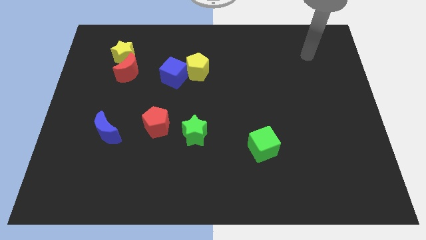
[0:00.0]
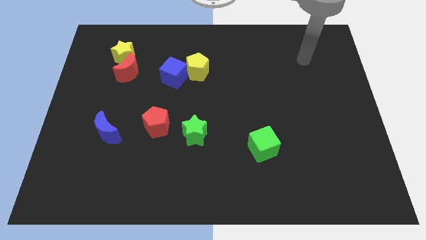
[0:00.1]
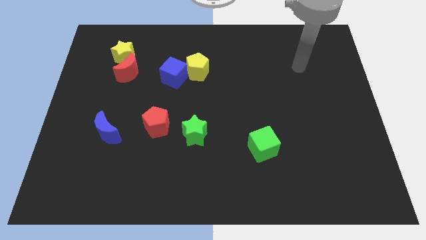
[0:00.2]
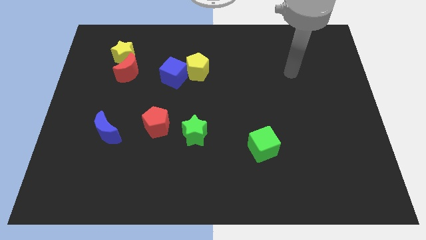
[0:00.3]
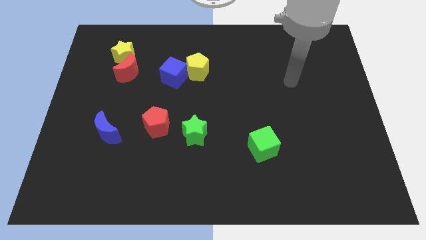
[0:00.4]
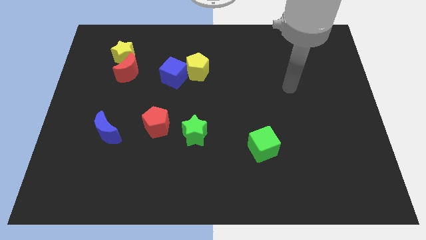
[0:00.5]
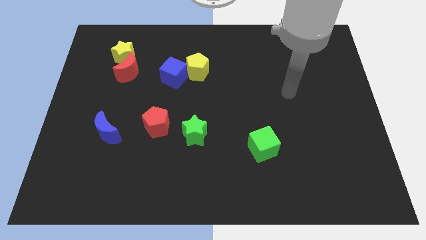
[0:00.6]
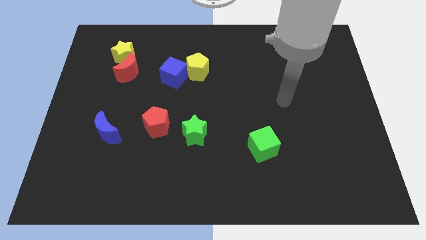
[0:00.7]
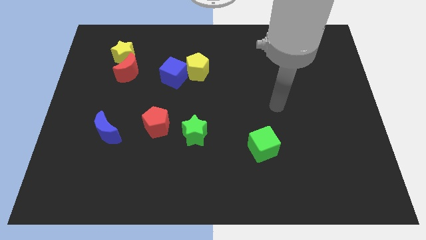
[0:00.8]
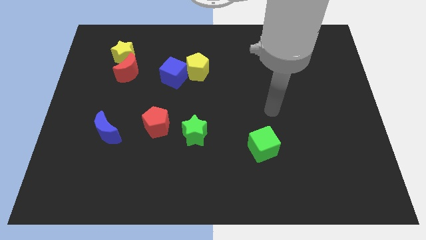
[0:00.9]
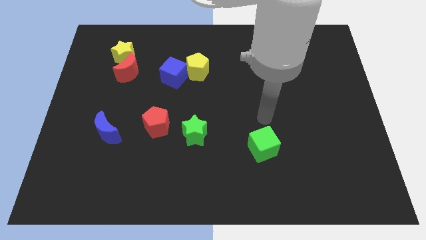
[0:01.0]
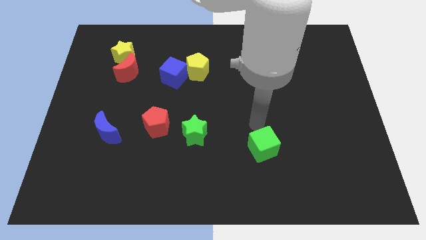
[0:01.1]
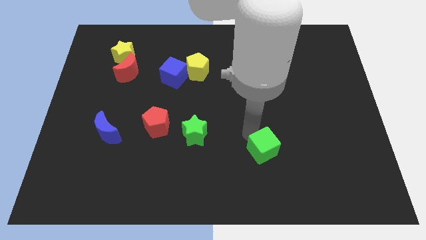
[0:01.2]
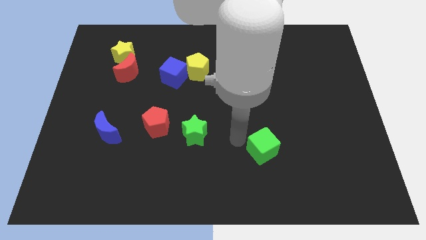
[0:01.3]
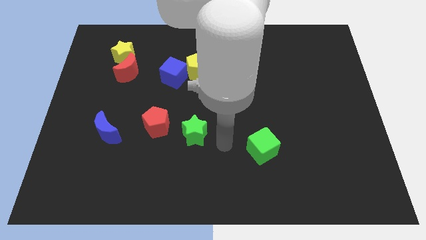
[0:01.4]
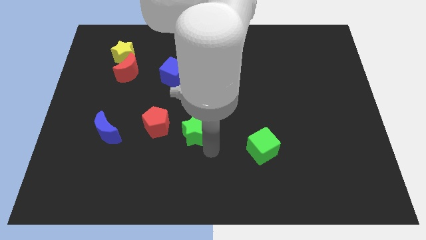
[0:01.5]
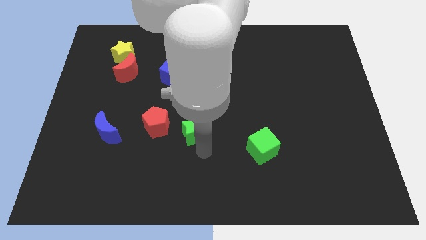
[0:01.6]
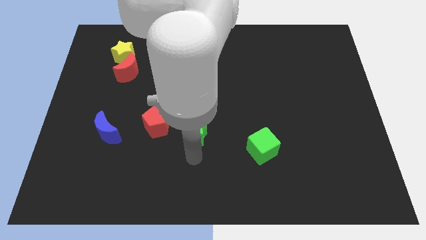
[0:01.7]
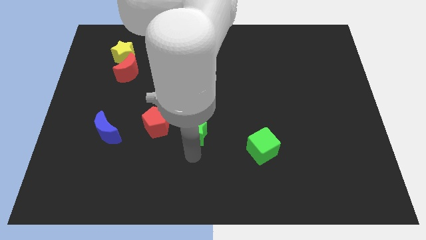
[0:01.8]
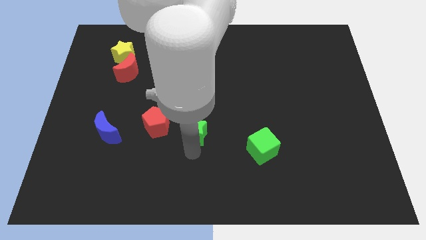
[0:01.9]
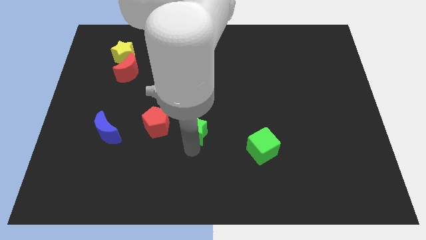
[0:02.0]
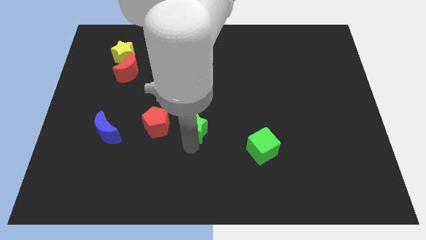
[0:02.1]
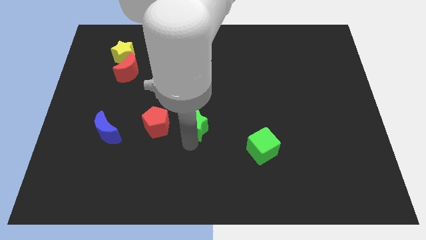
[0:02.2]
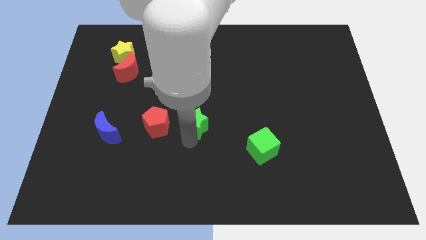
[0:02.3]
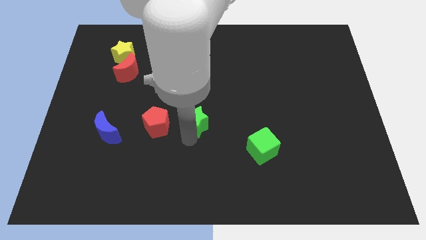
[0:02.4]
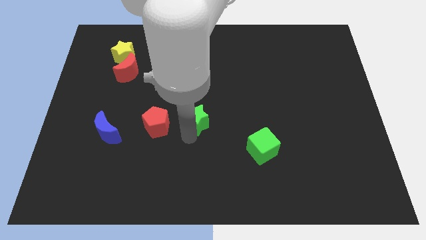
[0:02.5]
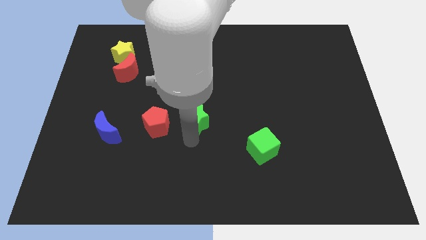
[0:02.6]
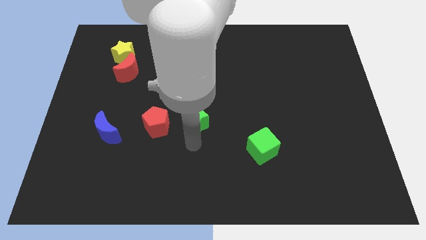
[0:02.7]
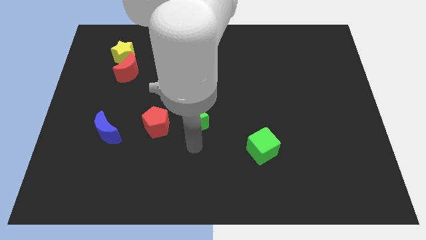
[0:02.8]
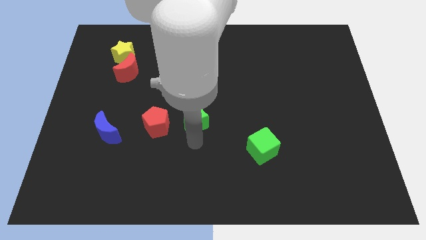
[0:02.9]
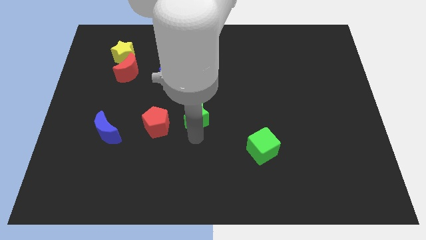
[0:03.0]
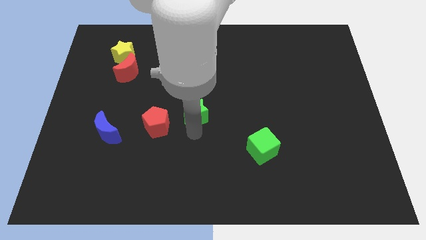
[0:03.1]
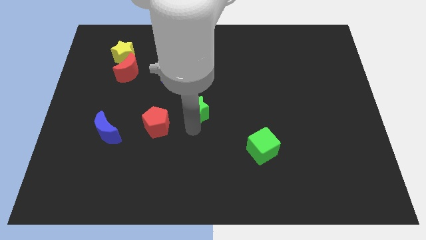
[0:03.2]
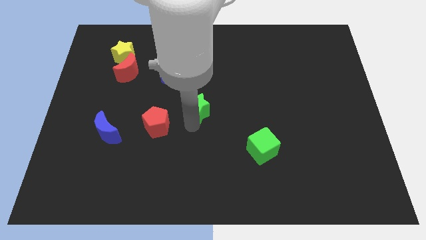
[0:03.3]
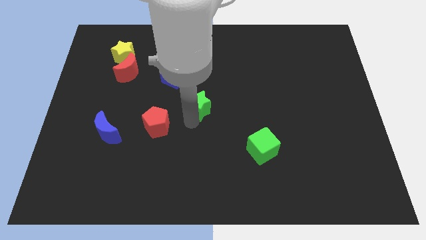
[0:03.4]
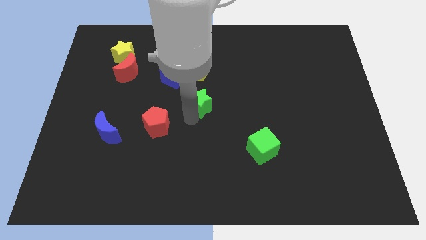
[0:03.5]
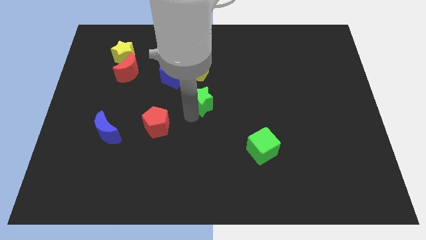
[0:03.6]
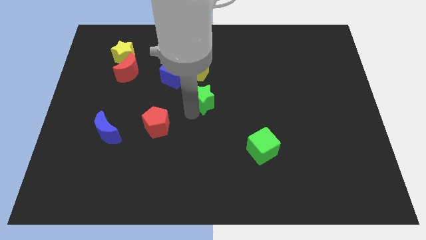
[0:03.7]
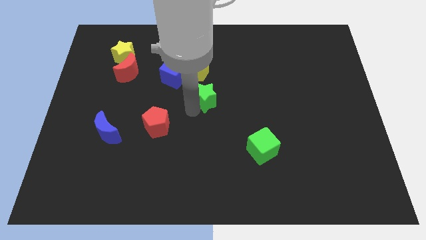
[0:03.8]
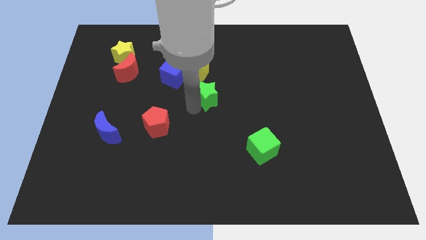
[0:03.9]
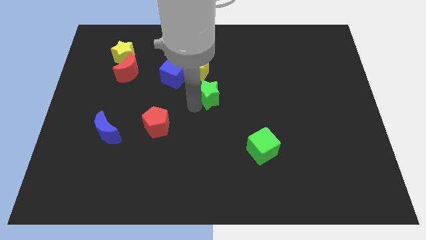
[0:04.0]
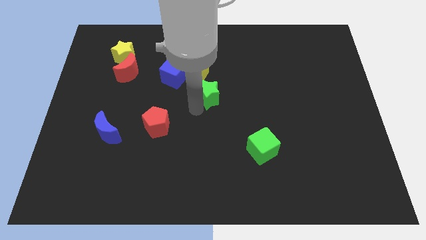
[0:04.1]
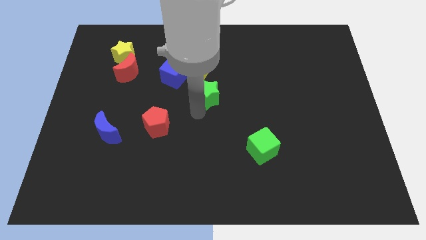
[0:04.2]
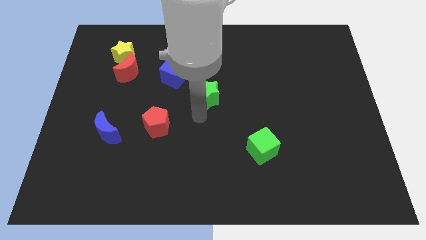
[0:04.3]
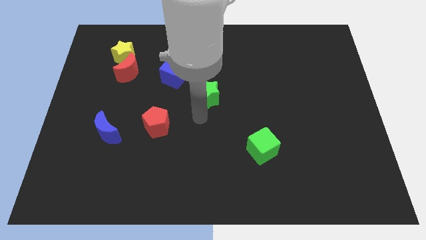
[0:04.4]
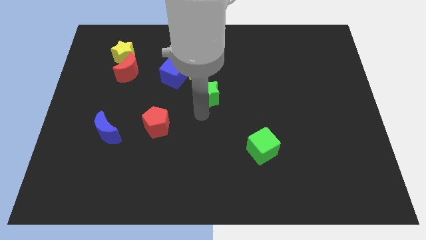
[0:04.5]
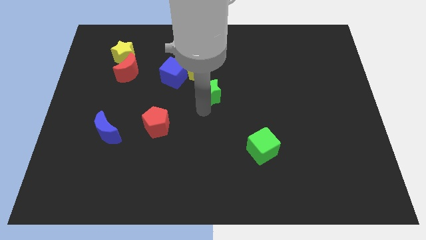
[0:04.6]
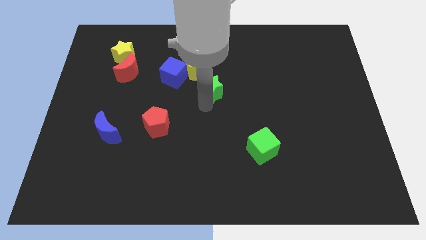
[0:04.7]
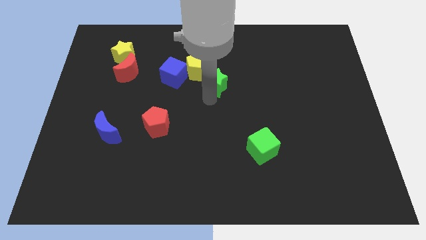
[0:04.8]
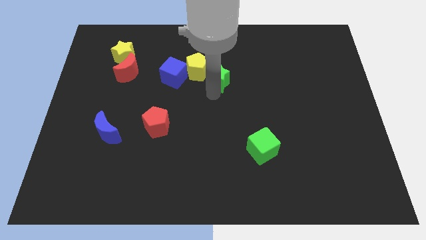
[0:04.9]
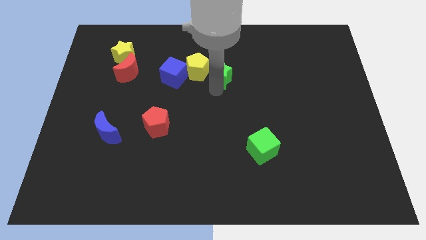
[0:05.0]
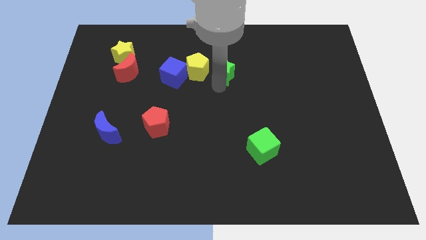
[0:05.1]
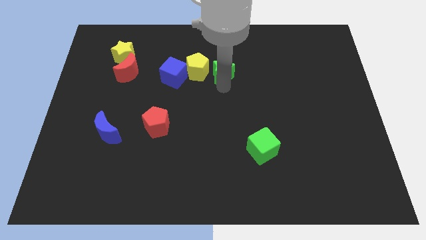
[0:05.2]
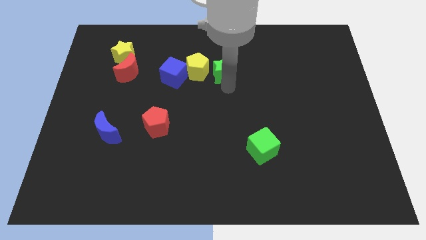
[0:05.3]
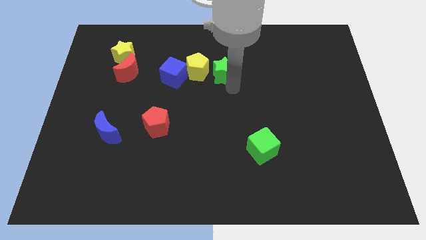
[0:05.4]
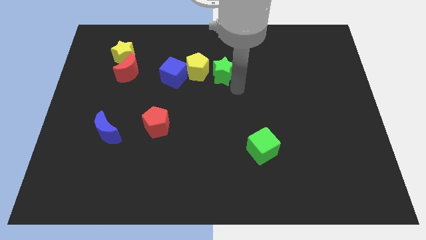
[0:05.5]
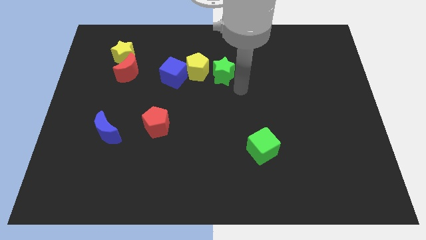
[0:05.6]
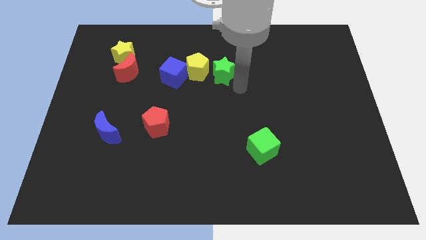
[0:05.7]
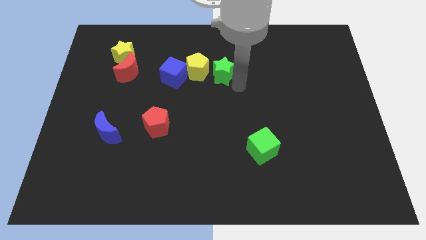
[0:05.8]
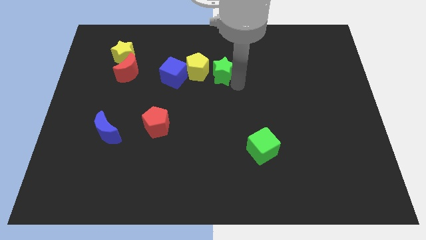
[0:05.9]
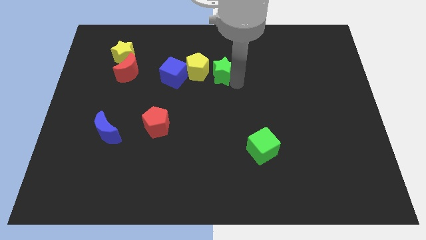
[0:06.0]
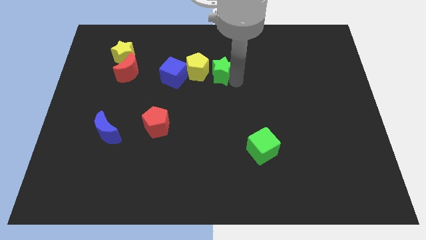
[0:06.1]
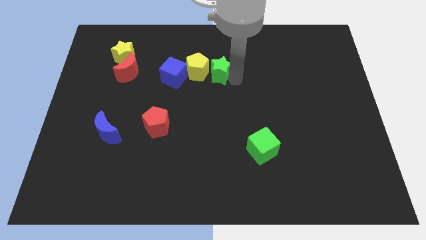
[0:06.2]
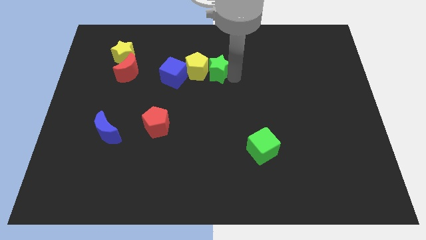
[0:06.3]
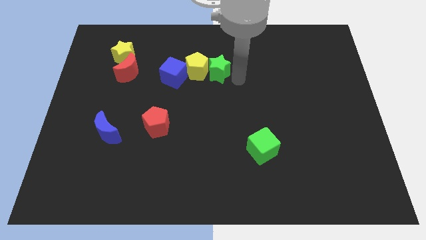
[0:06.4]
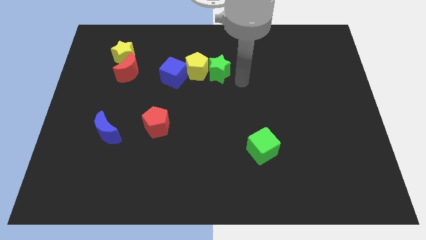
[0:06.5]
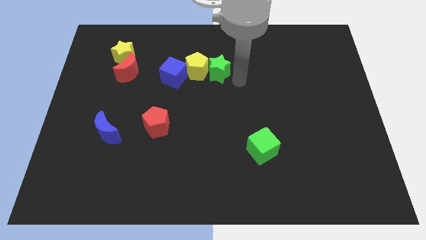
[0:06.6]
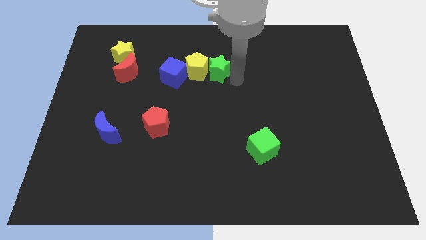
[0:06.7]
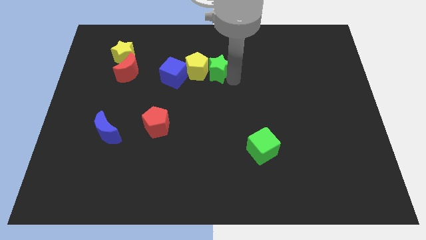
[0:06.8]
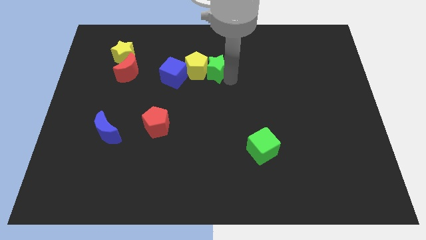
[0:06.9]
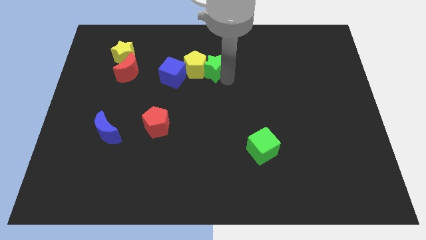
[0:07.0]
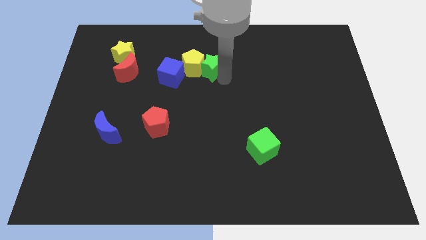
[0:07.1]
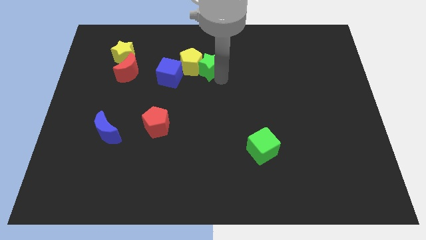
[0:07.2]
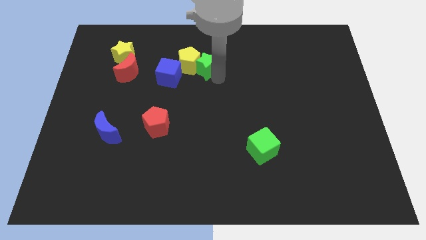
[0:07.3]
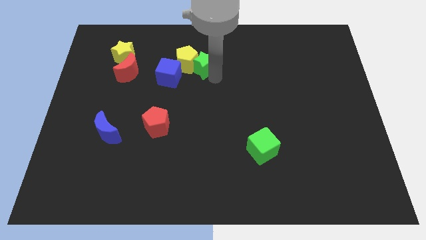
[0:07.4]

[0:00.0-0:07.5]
push the green star to the top right of the blue cube
